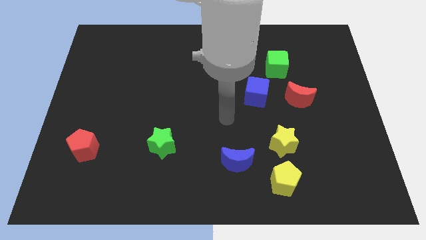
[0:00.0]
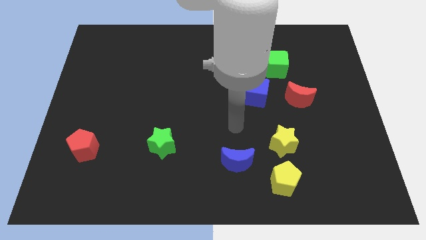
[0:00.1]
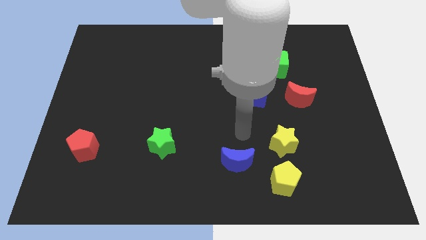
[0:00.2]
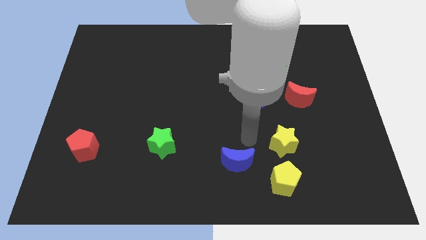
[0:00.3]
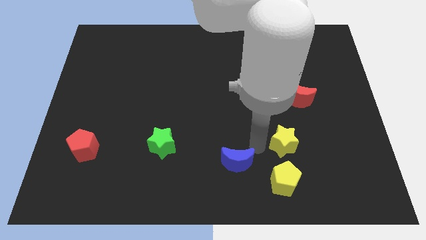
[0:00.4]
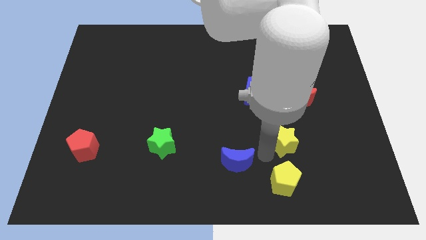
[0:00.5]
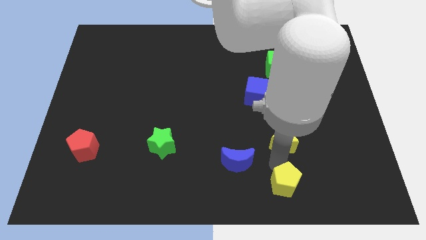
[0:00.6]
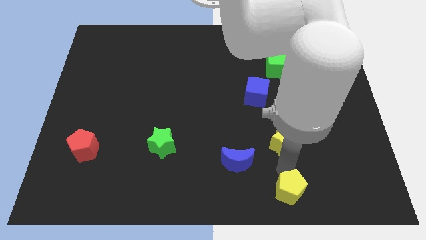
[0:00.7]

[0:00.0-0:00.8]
separate the yellow star from the yellow pentagon

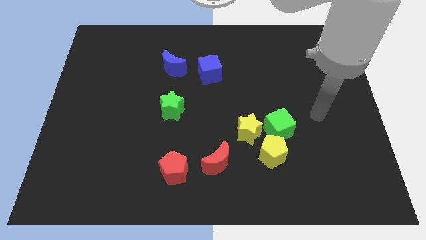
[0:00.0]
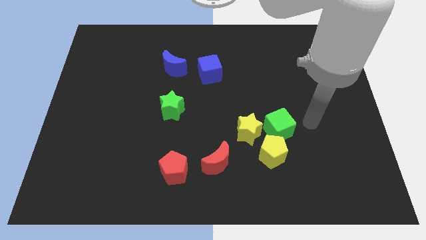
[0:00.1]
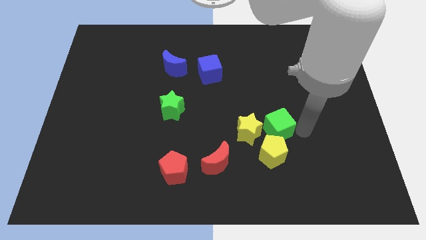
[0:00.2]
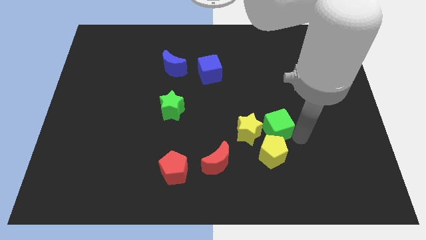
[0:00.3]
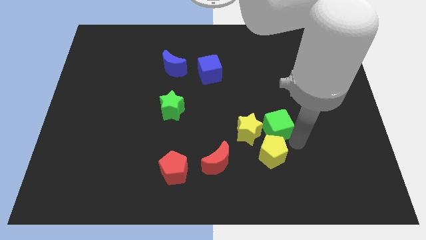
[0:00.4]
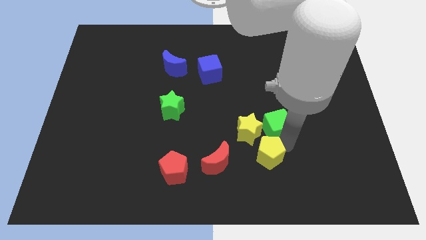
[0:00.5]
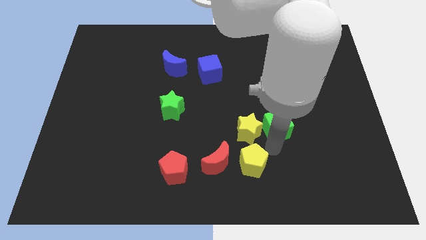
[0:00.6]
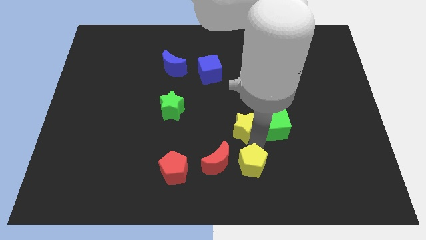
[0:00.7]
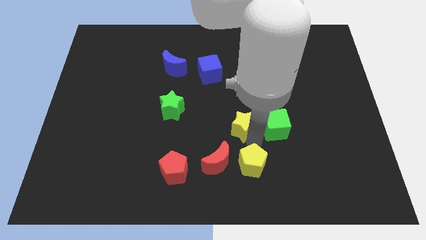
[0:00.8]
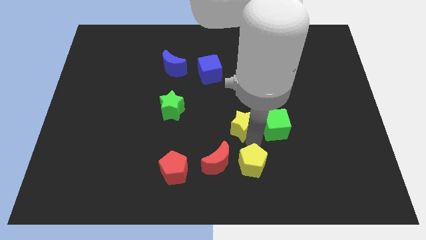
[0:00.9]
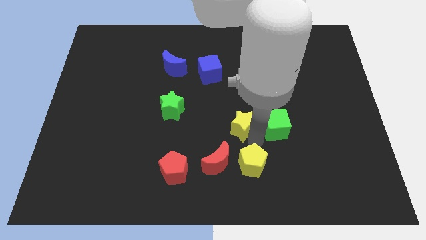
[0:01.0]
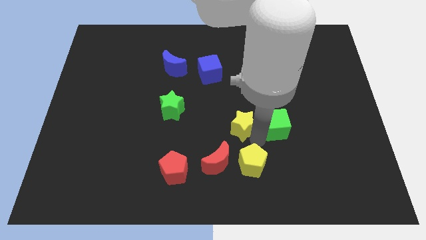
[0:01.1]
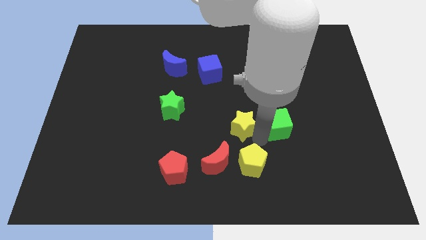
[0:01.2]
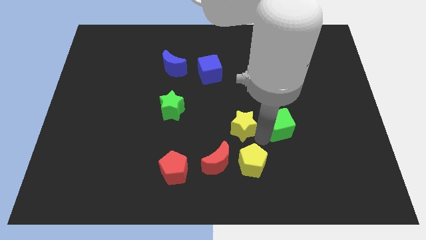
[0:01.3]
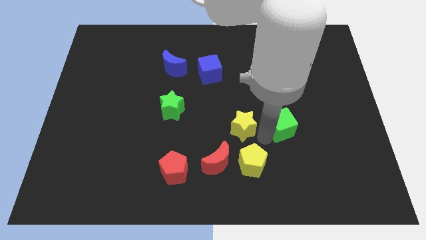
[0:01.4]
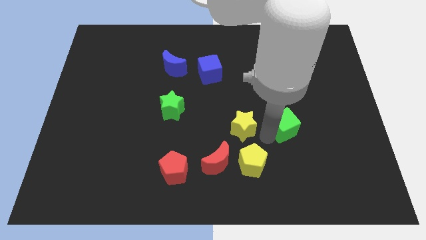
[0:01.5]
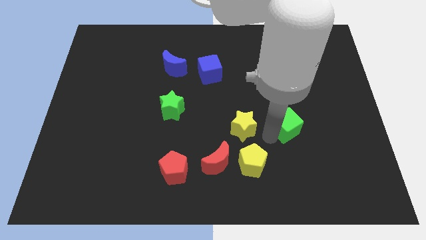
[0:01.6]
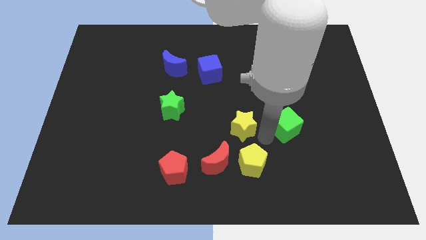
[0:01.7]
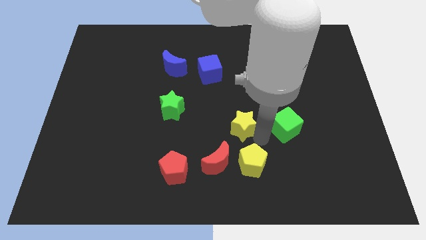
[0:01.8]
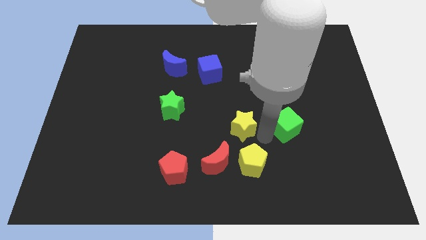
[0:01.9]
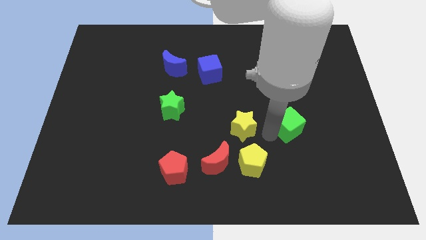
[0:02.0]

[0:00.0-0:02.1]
move the green cube away from the yellow star and yellow pentagon

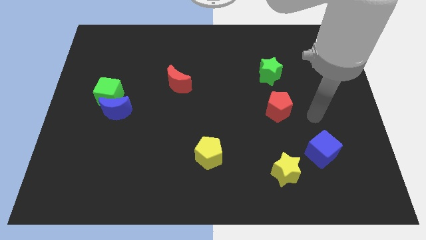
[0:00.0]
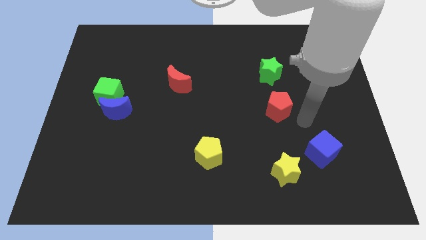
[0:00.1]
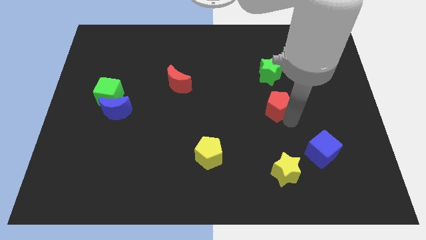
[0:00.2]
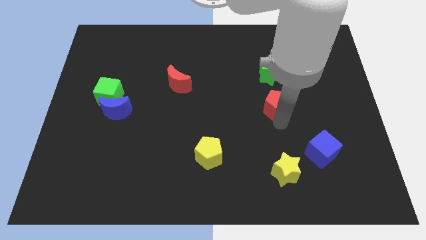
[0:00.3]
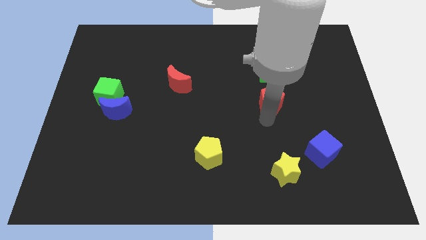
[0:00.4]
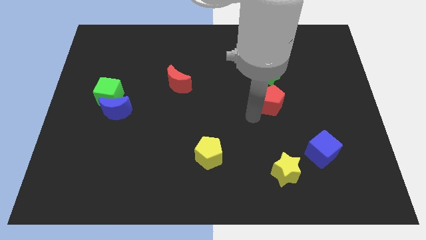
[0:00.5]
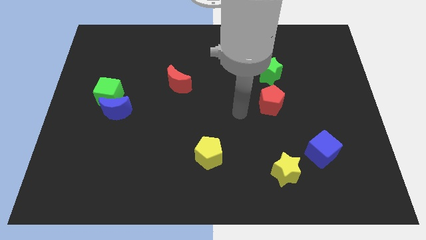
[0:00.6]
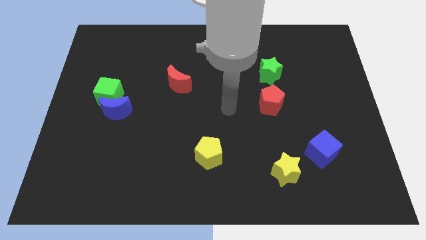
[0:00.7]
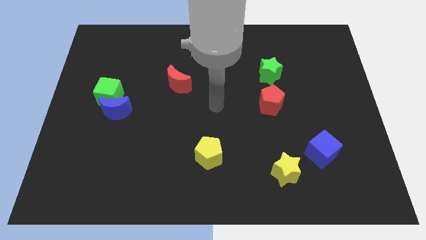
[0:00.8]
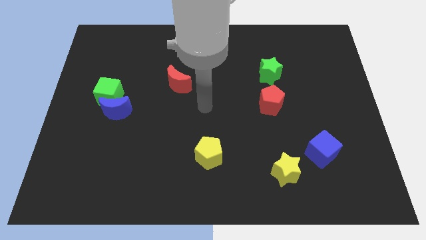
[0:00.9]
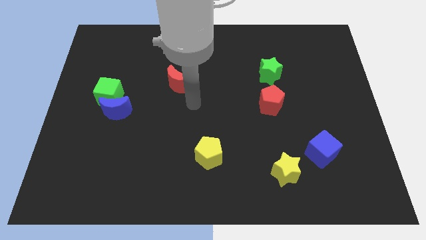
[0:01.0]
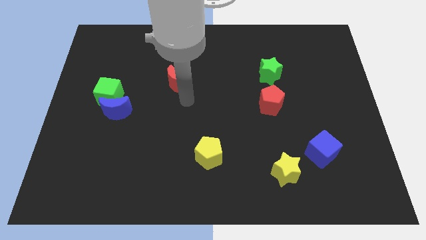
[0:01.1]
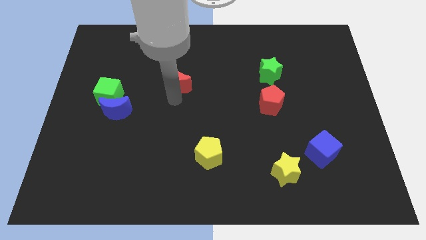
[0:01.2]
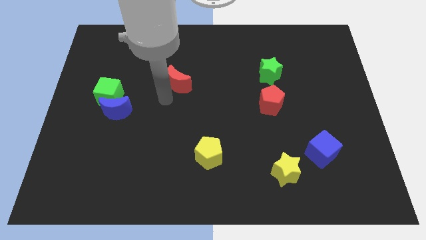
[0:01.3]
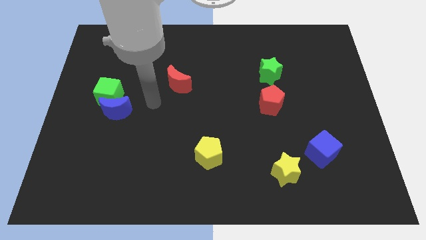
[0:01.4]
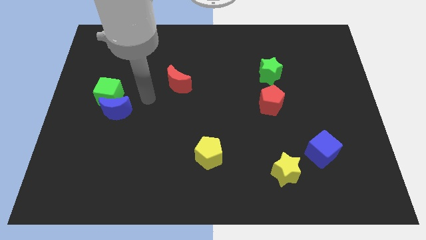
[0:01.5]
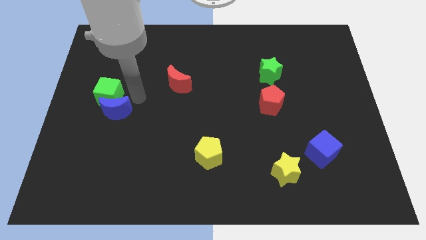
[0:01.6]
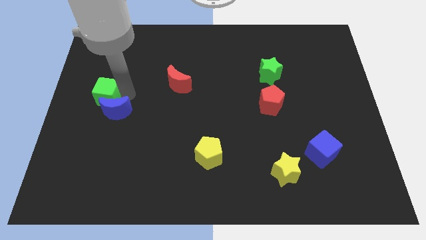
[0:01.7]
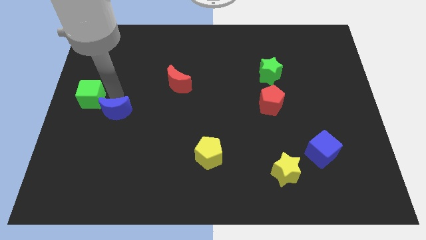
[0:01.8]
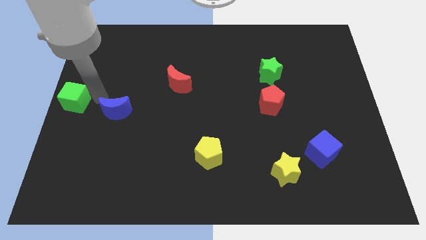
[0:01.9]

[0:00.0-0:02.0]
move the blue moon away from the green cube

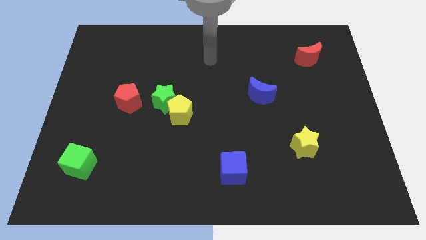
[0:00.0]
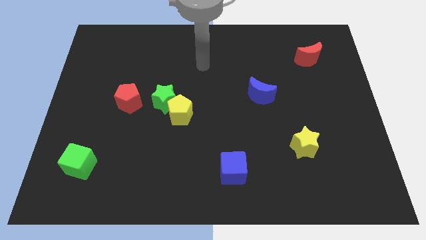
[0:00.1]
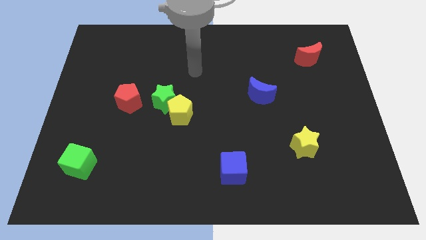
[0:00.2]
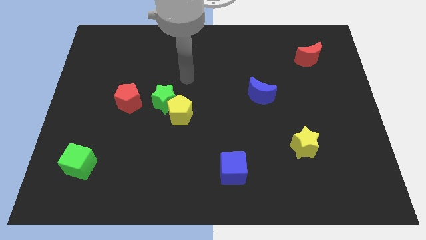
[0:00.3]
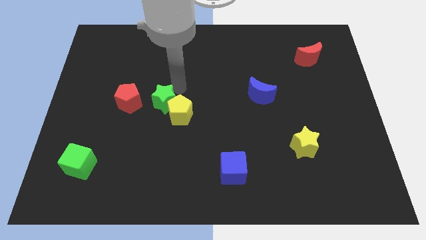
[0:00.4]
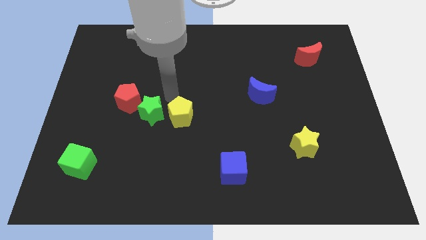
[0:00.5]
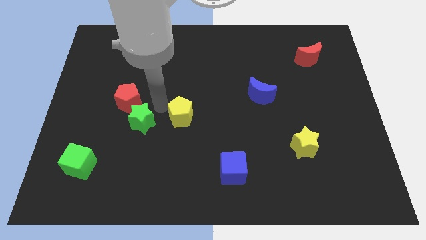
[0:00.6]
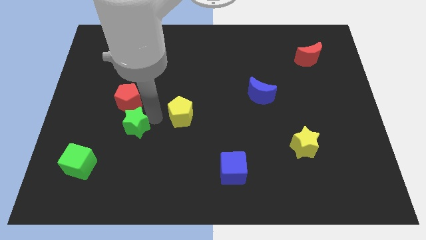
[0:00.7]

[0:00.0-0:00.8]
move the yellow pentagon away from the green star

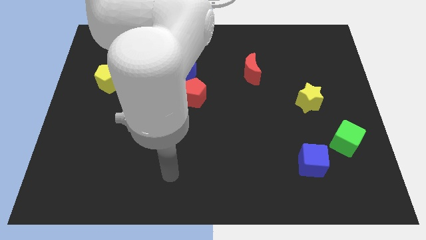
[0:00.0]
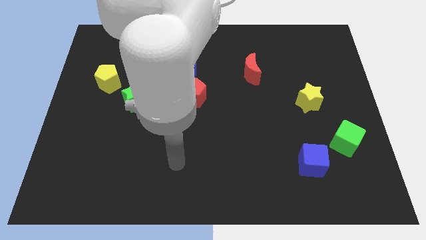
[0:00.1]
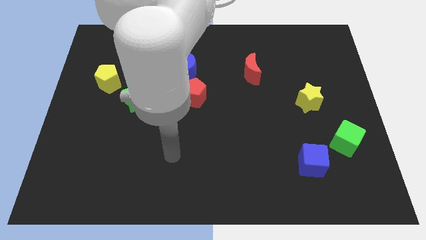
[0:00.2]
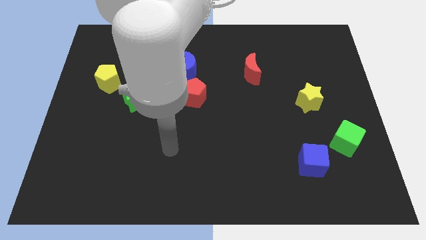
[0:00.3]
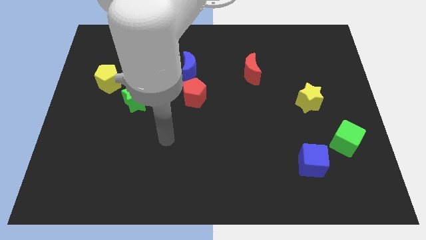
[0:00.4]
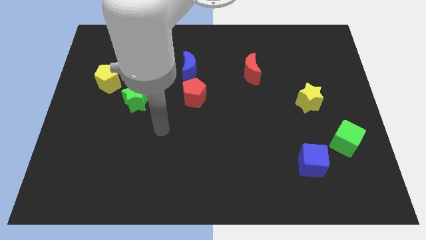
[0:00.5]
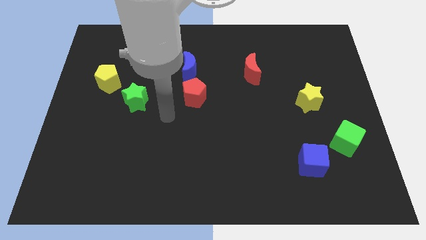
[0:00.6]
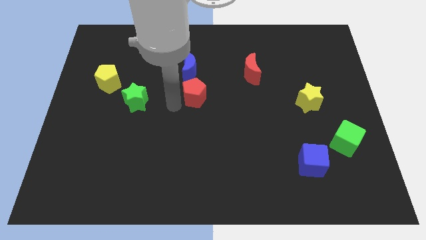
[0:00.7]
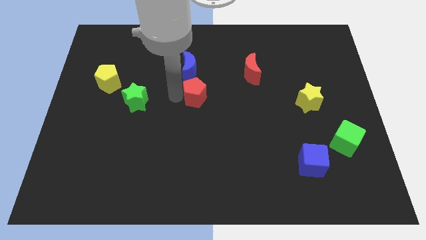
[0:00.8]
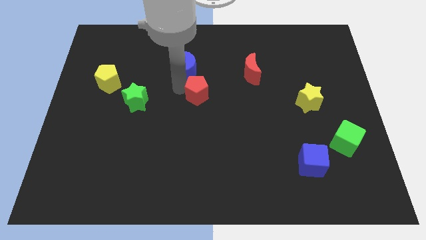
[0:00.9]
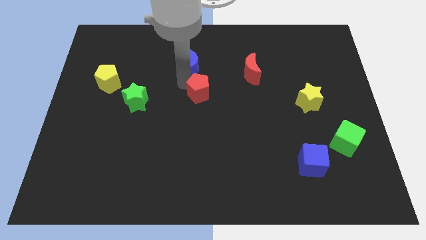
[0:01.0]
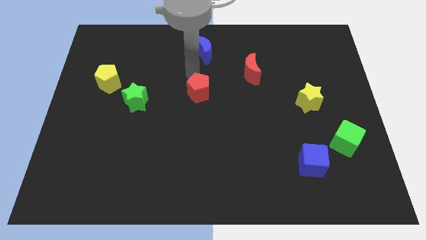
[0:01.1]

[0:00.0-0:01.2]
move the red pentagon away from the blue moon

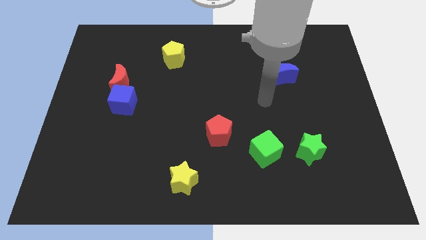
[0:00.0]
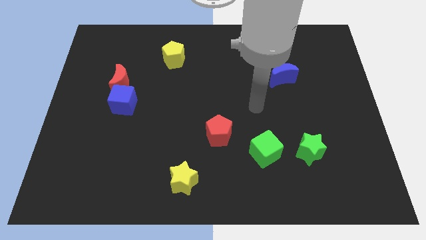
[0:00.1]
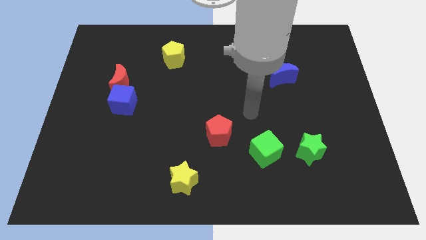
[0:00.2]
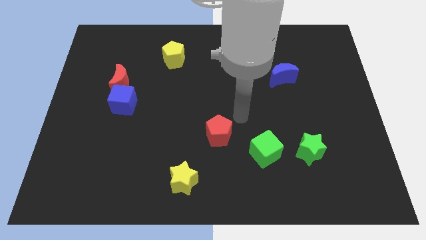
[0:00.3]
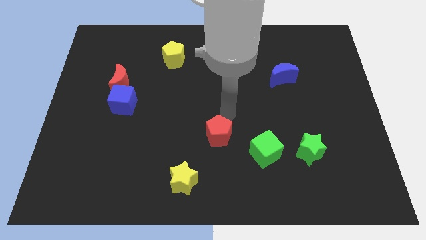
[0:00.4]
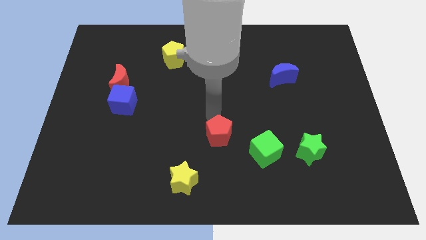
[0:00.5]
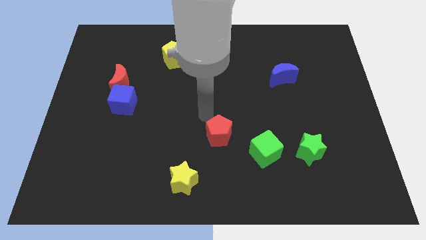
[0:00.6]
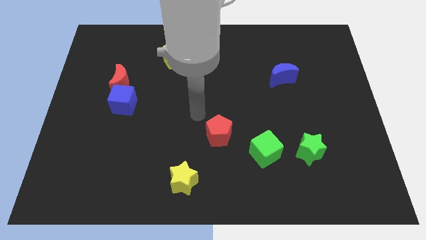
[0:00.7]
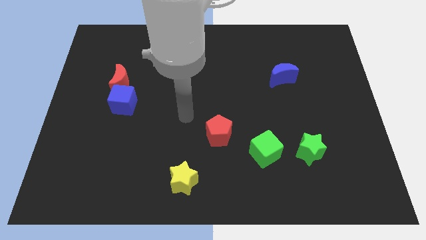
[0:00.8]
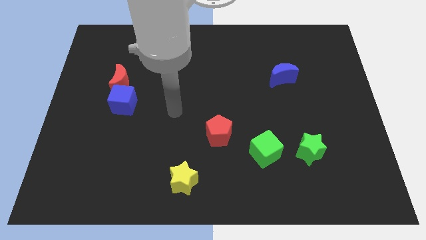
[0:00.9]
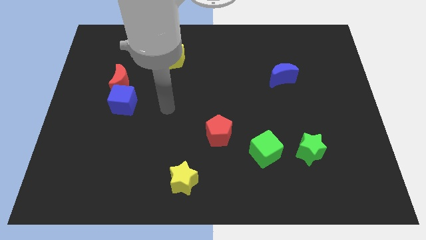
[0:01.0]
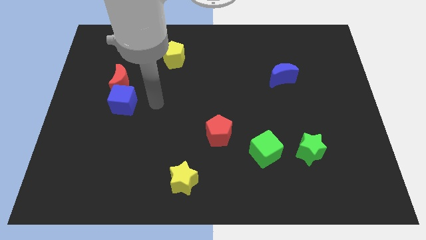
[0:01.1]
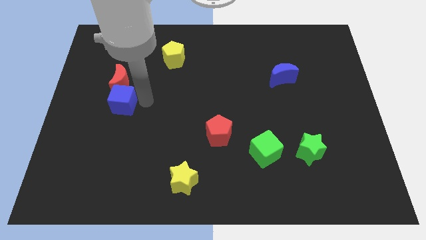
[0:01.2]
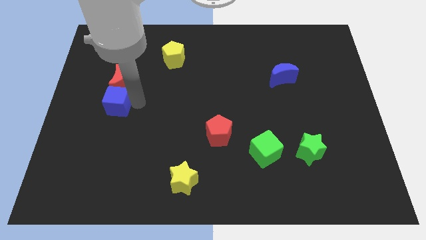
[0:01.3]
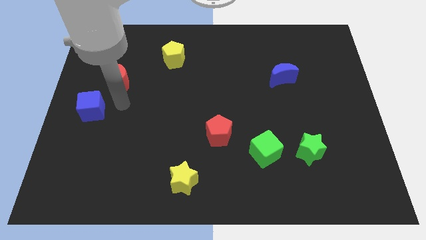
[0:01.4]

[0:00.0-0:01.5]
move the red moon away from the blue cube

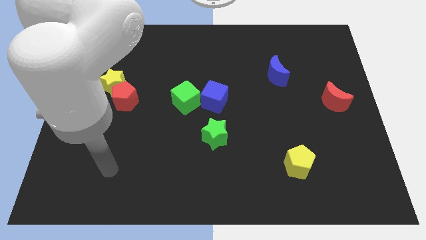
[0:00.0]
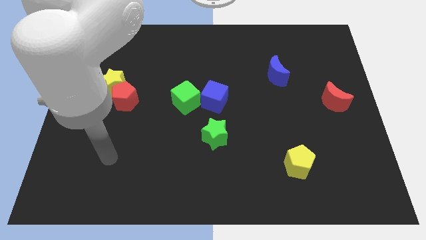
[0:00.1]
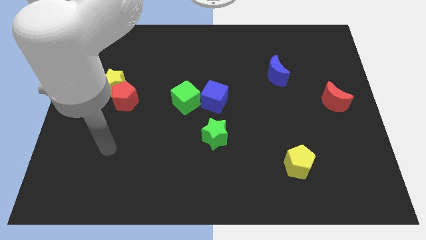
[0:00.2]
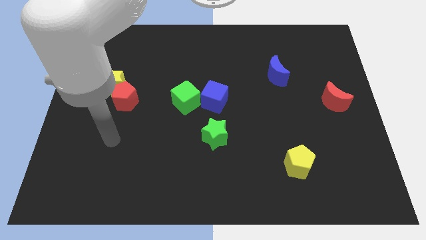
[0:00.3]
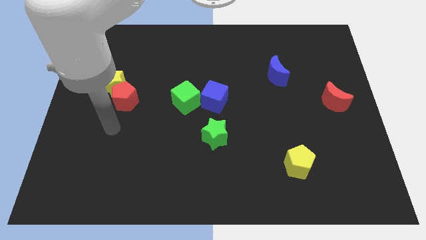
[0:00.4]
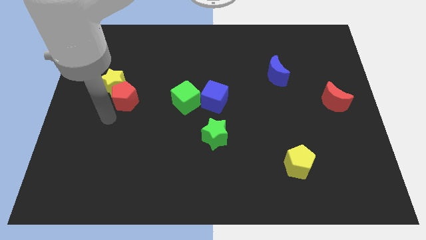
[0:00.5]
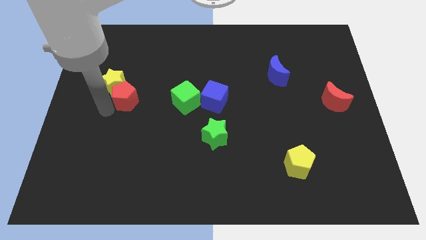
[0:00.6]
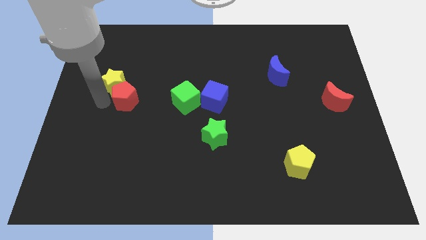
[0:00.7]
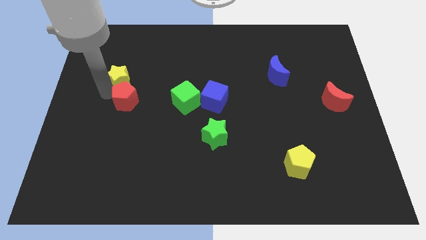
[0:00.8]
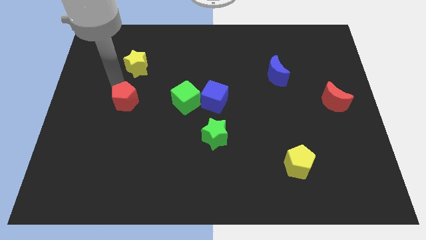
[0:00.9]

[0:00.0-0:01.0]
separate the red pentagon from the yellow star
